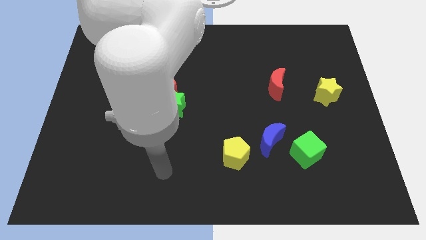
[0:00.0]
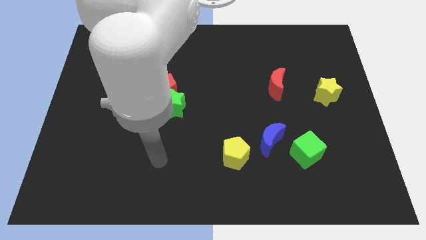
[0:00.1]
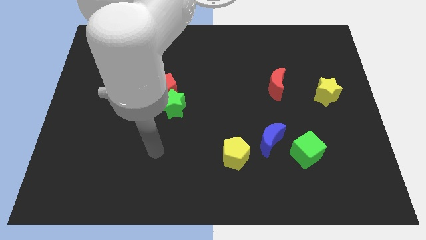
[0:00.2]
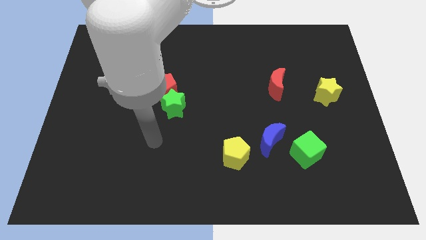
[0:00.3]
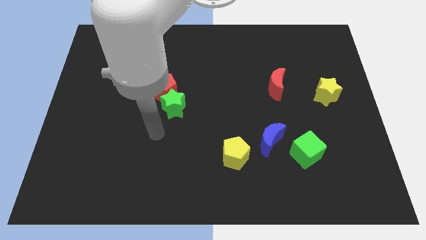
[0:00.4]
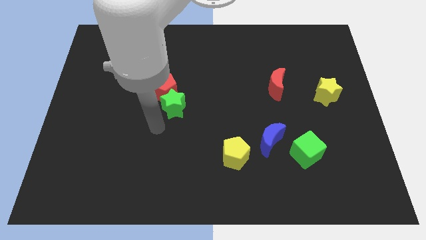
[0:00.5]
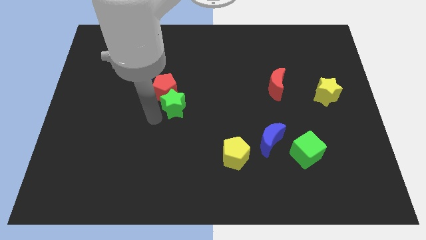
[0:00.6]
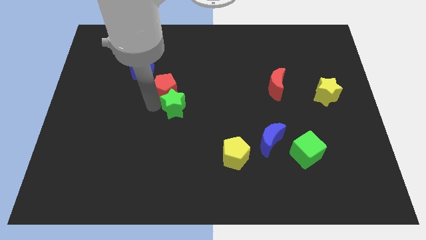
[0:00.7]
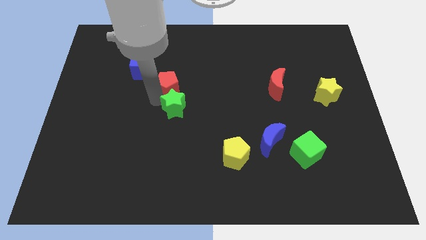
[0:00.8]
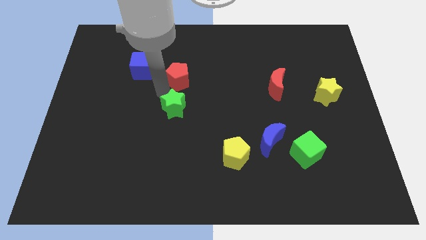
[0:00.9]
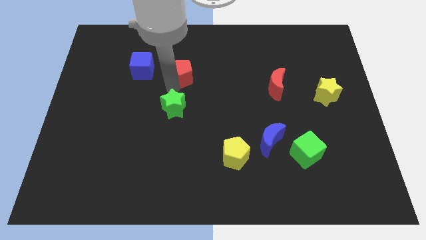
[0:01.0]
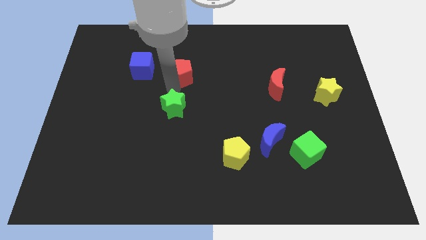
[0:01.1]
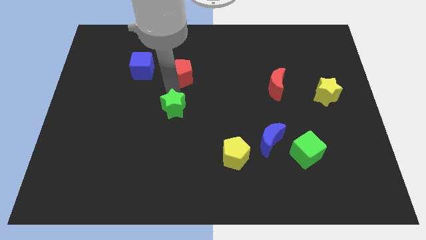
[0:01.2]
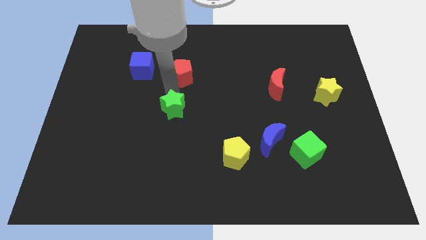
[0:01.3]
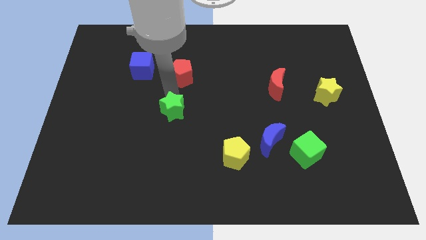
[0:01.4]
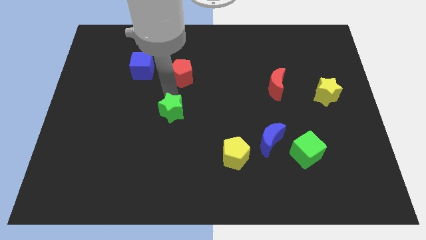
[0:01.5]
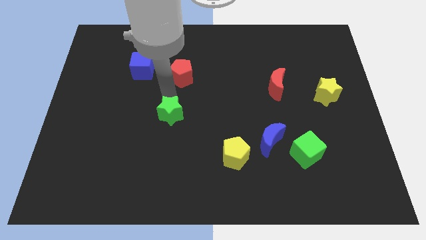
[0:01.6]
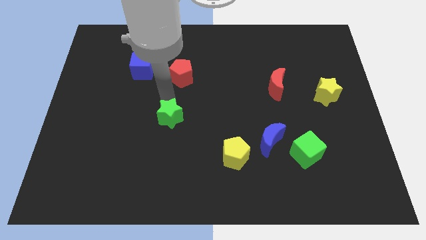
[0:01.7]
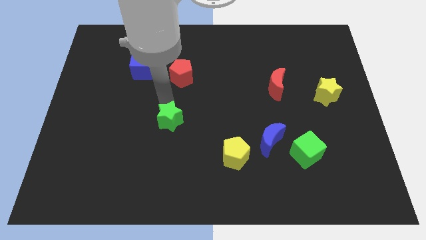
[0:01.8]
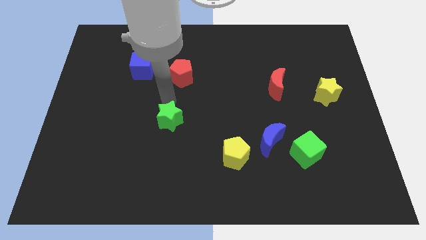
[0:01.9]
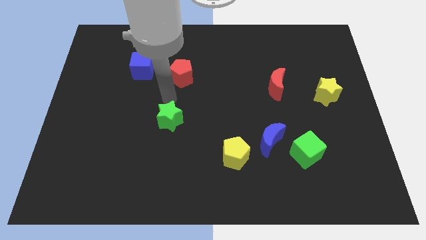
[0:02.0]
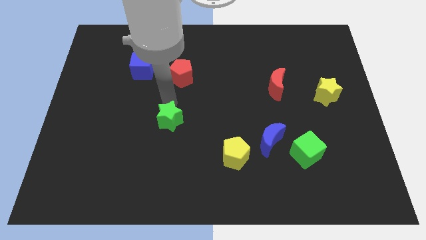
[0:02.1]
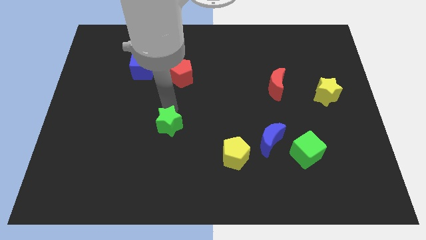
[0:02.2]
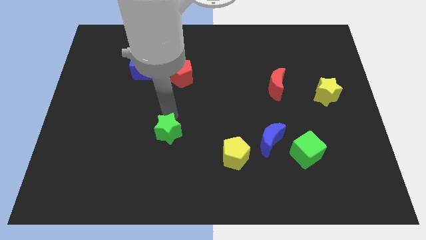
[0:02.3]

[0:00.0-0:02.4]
slightly move the green star downwards

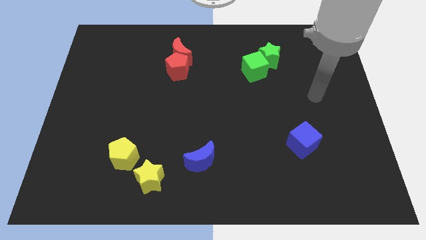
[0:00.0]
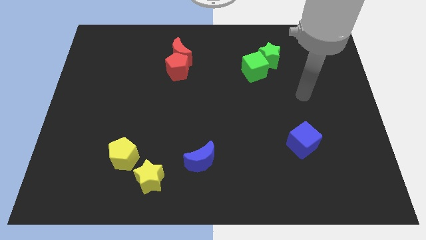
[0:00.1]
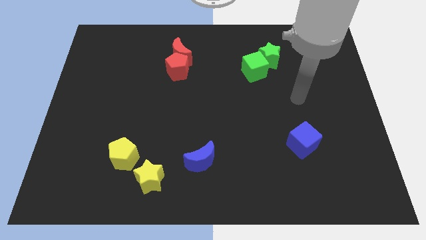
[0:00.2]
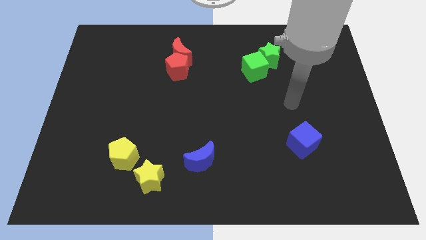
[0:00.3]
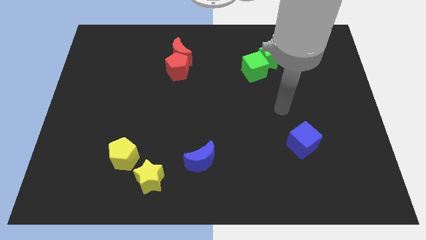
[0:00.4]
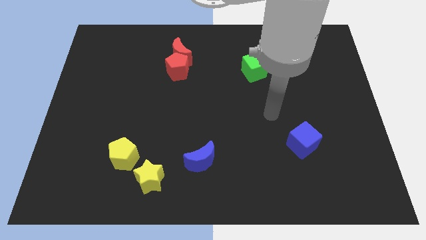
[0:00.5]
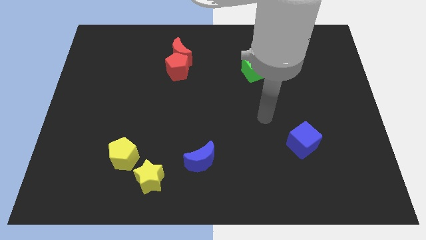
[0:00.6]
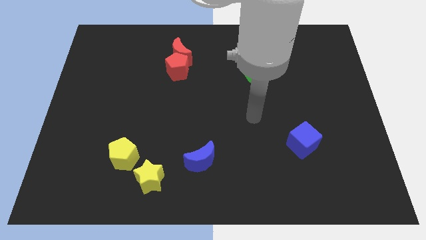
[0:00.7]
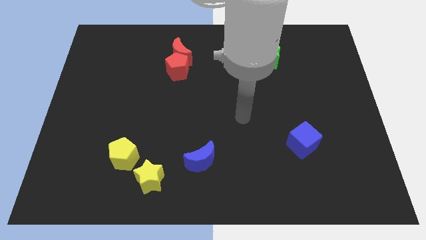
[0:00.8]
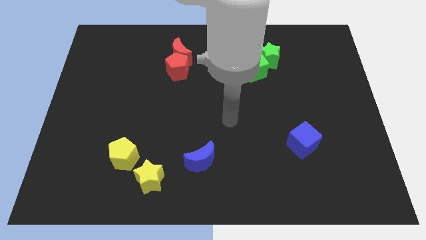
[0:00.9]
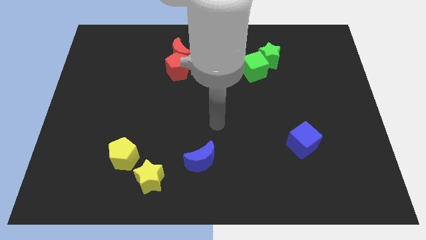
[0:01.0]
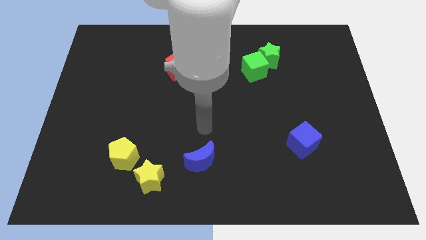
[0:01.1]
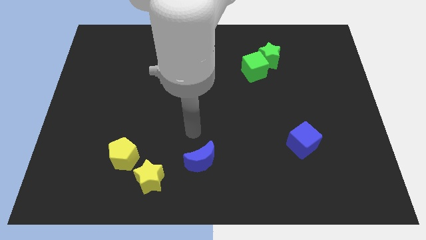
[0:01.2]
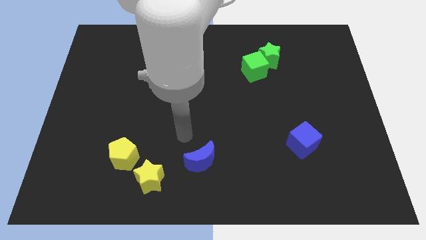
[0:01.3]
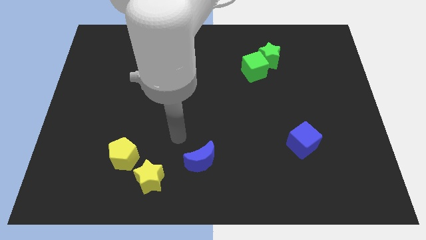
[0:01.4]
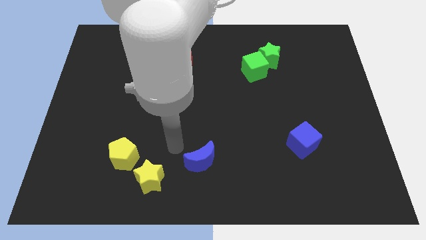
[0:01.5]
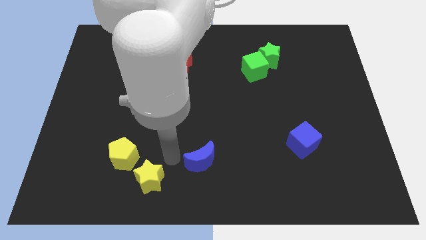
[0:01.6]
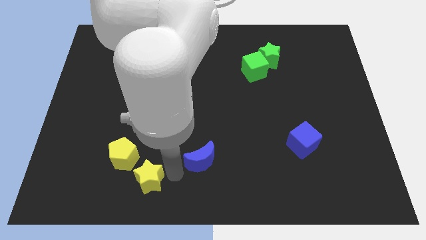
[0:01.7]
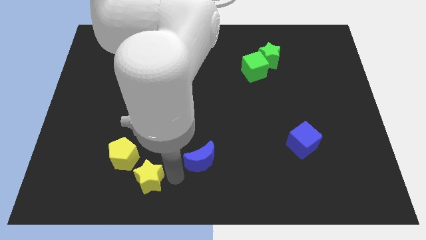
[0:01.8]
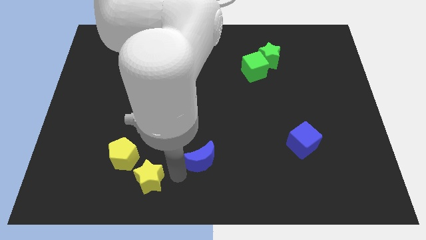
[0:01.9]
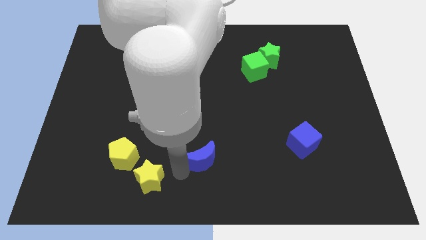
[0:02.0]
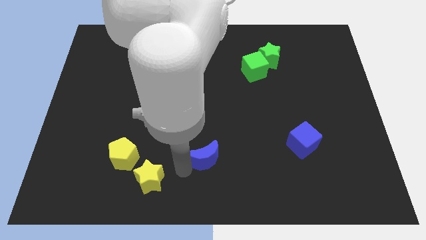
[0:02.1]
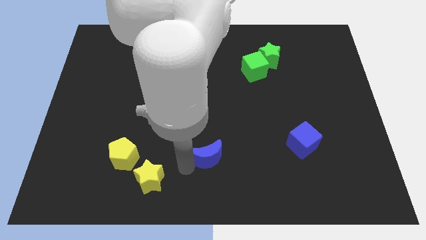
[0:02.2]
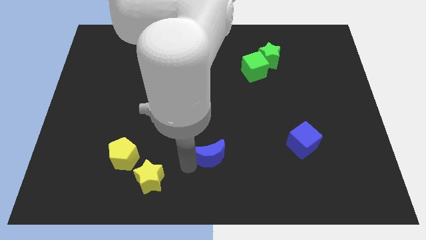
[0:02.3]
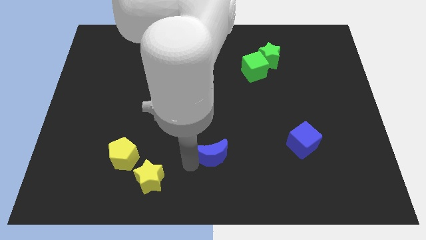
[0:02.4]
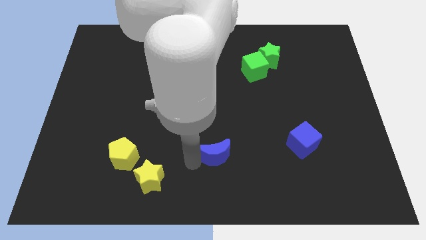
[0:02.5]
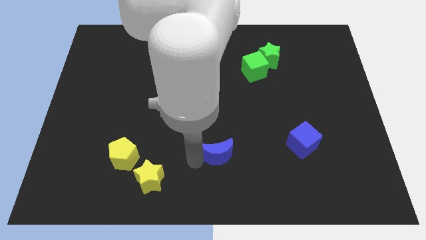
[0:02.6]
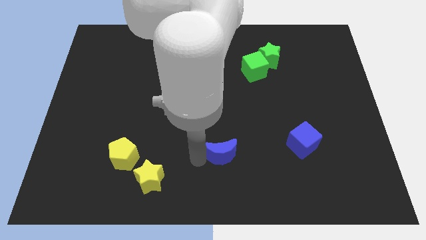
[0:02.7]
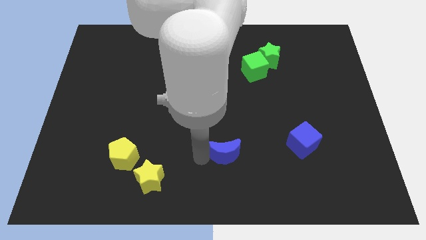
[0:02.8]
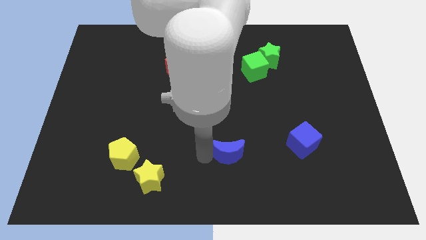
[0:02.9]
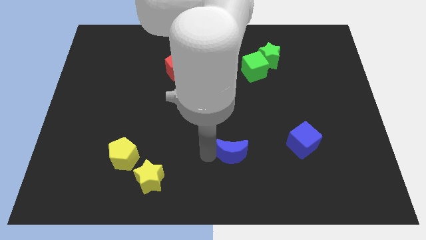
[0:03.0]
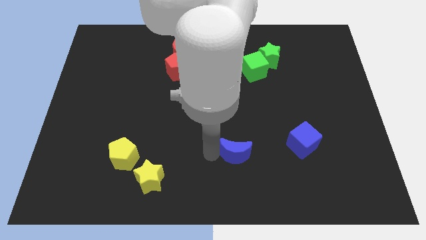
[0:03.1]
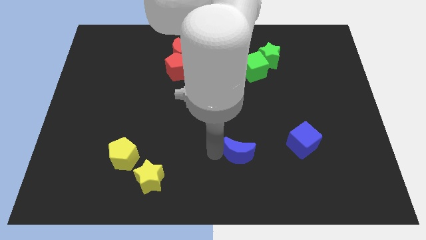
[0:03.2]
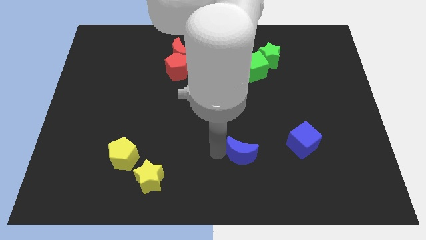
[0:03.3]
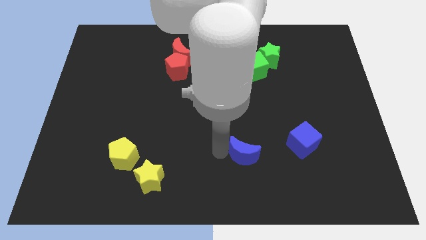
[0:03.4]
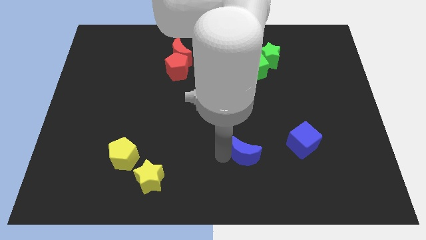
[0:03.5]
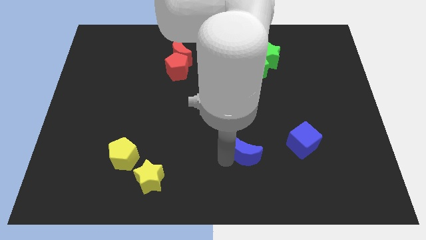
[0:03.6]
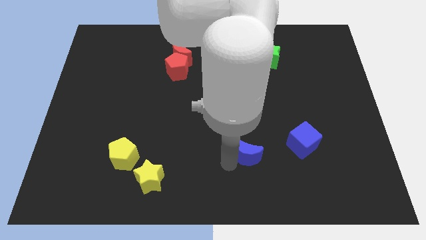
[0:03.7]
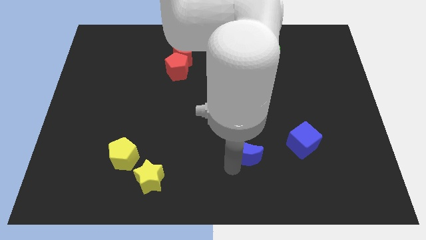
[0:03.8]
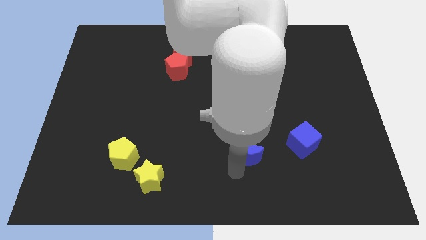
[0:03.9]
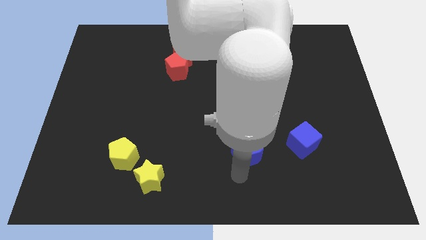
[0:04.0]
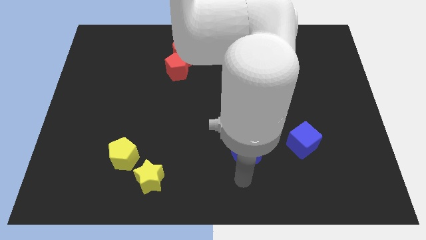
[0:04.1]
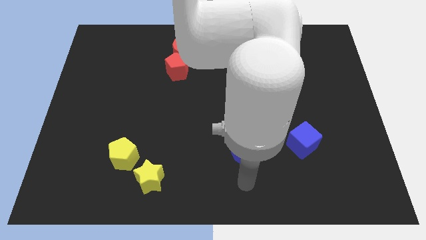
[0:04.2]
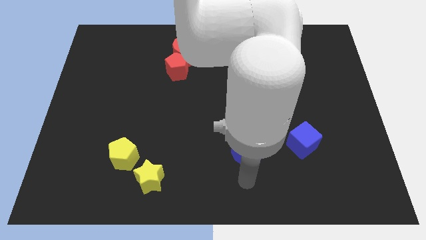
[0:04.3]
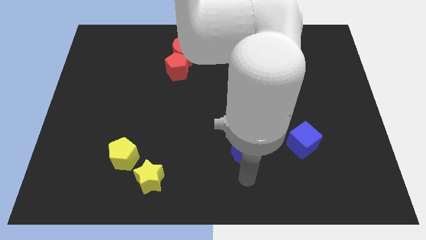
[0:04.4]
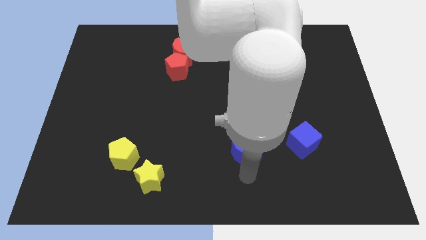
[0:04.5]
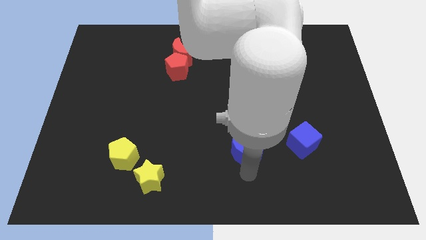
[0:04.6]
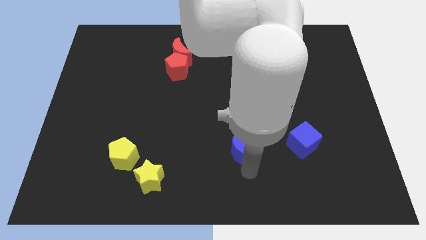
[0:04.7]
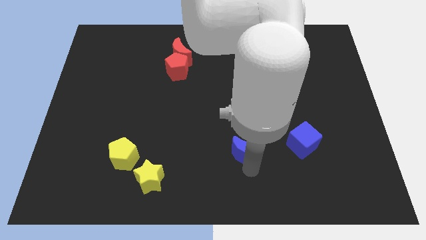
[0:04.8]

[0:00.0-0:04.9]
move the blue moon diagonally up and to the right somewhat

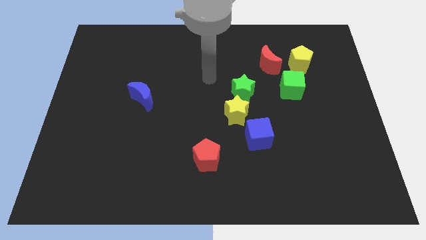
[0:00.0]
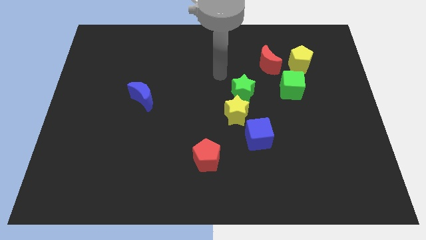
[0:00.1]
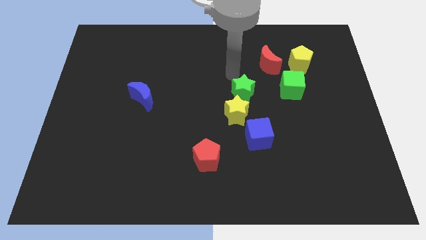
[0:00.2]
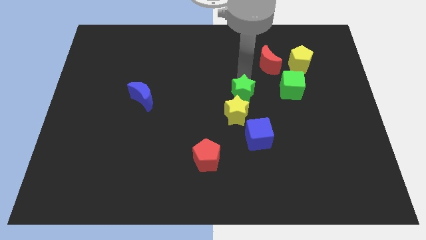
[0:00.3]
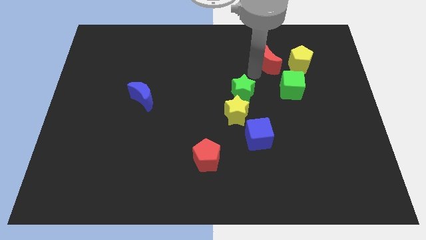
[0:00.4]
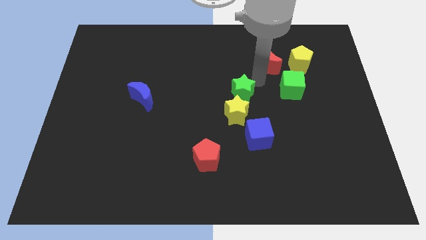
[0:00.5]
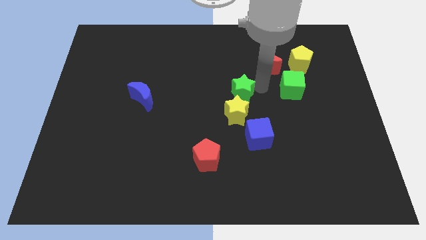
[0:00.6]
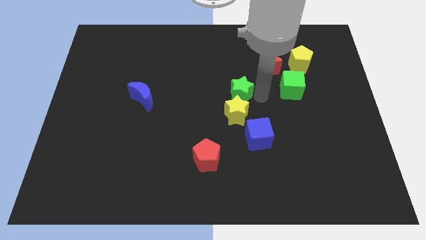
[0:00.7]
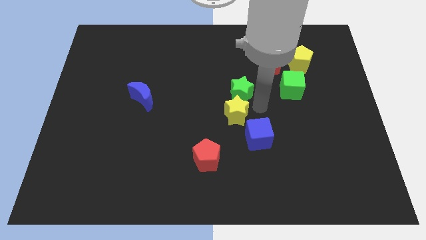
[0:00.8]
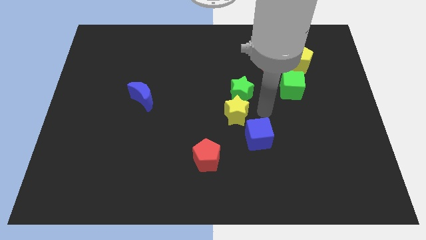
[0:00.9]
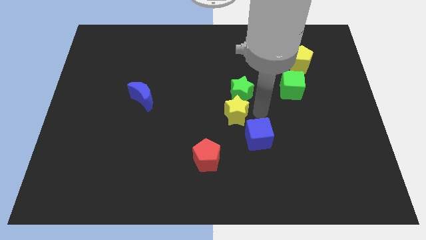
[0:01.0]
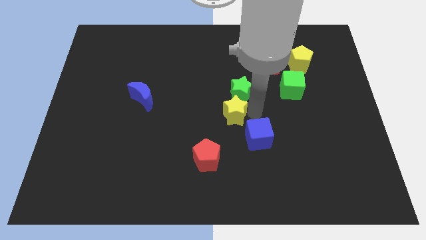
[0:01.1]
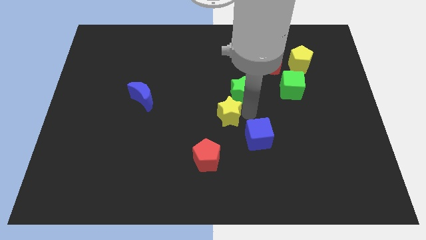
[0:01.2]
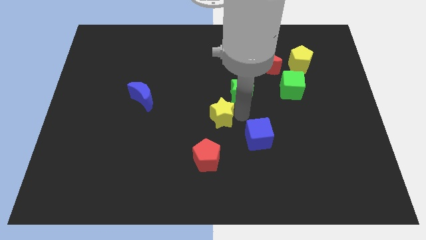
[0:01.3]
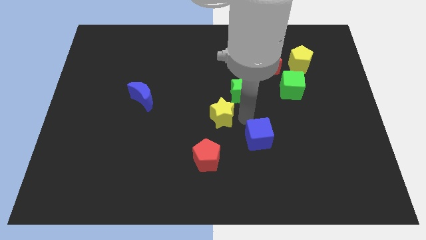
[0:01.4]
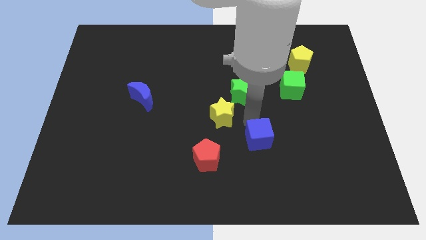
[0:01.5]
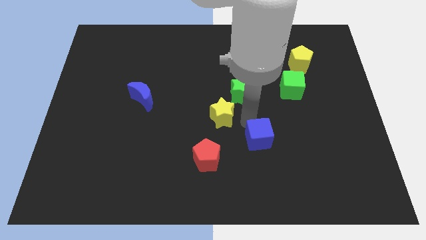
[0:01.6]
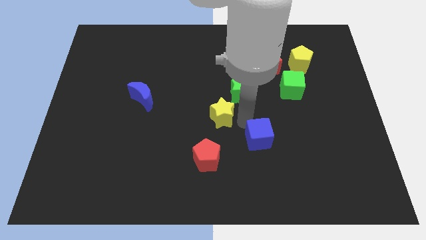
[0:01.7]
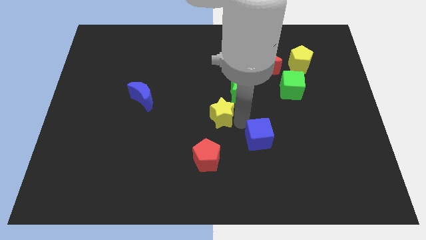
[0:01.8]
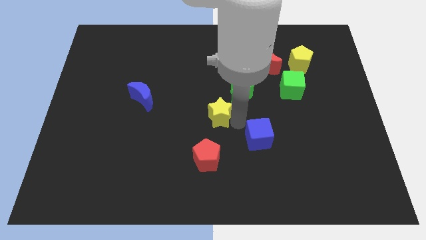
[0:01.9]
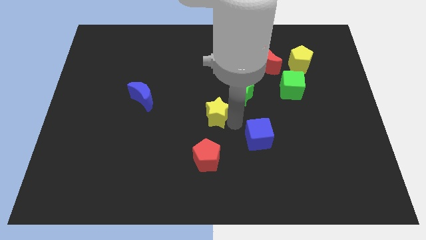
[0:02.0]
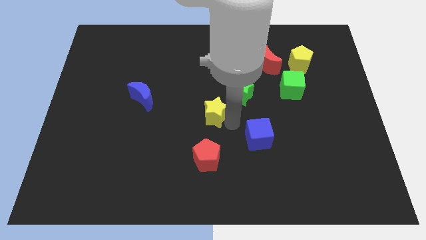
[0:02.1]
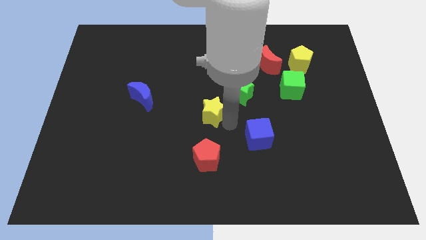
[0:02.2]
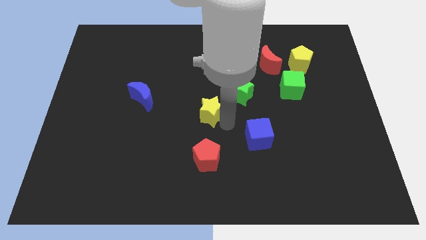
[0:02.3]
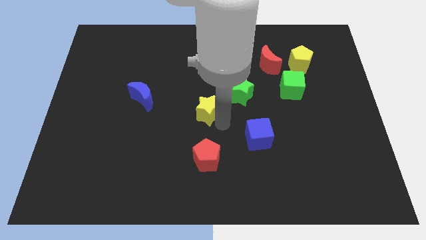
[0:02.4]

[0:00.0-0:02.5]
move the yellow star slightly left
